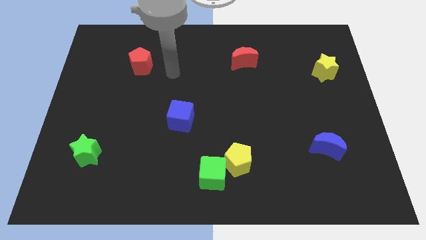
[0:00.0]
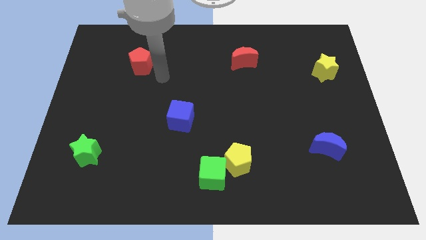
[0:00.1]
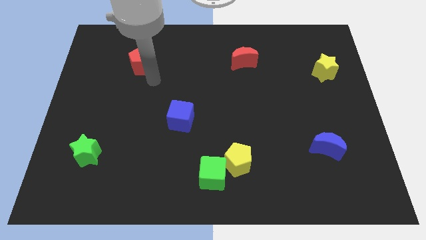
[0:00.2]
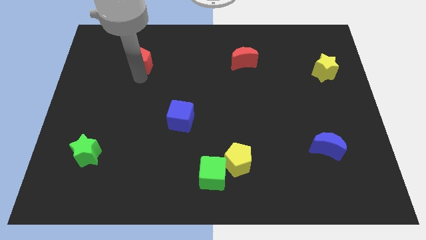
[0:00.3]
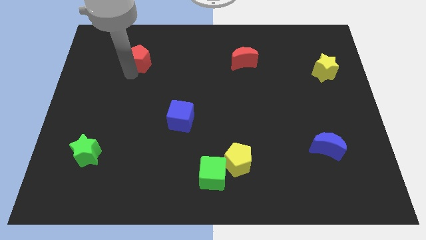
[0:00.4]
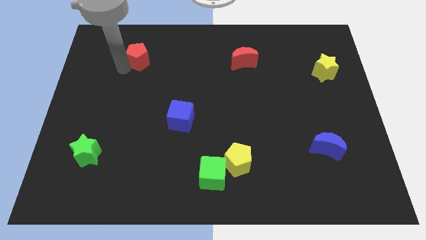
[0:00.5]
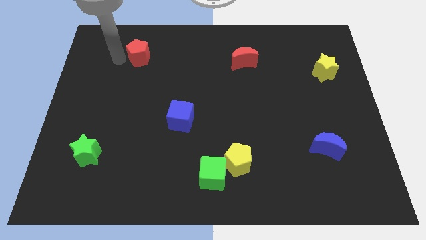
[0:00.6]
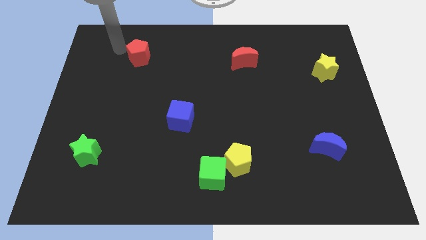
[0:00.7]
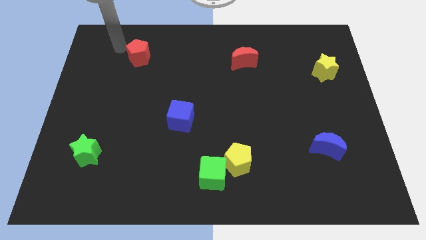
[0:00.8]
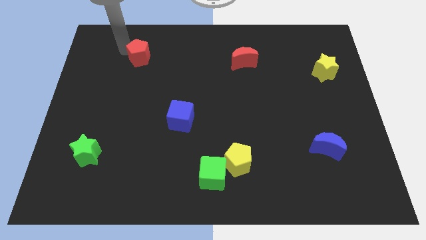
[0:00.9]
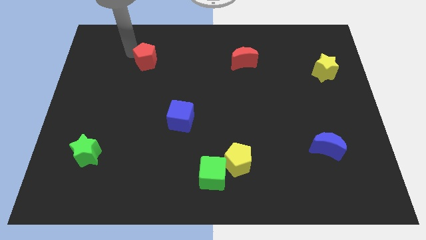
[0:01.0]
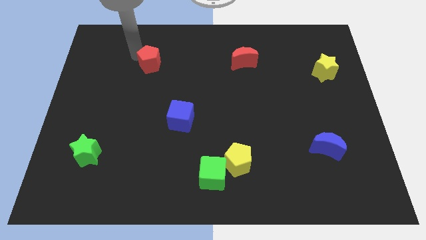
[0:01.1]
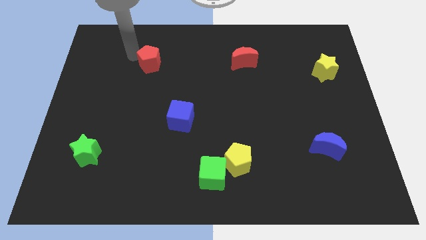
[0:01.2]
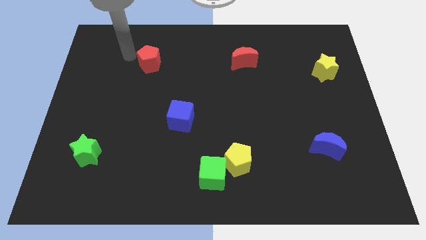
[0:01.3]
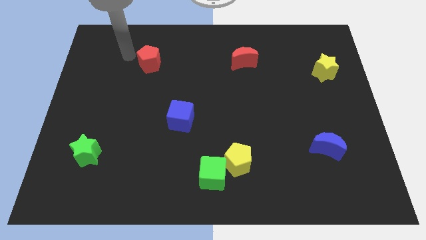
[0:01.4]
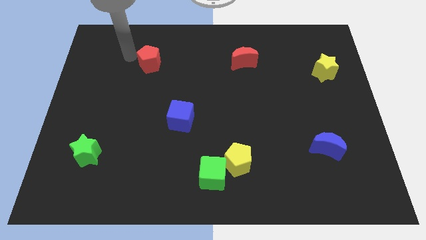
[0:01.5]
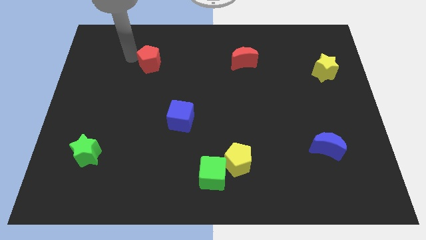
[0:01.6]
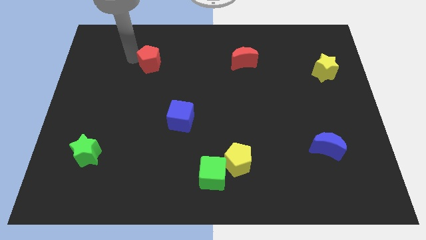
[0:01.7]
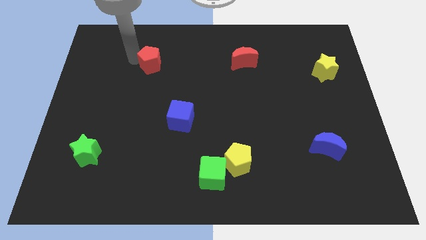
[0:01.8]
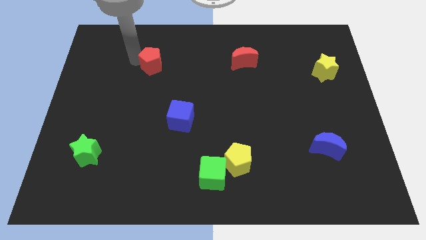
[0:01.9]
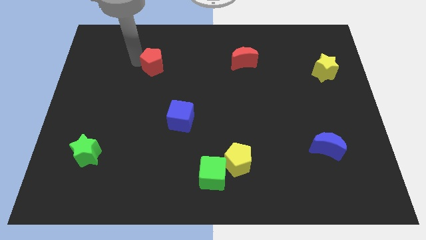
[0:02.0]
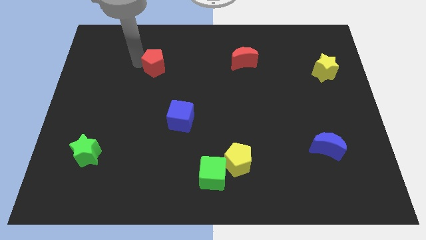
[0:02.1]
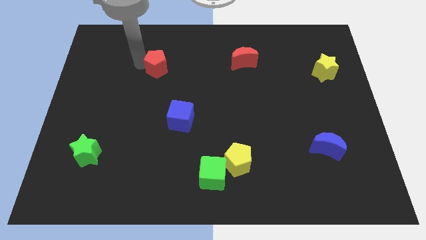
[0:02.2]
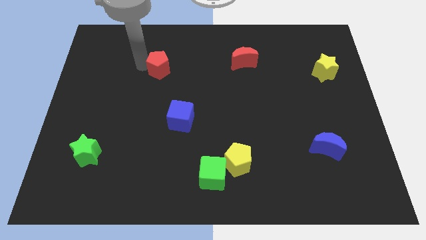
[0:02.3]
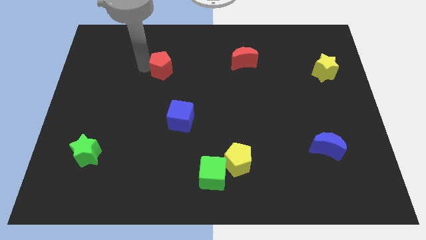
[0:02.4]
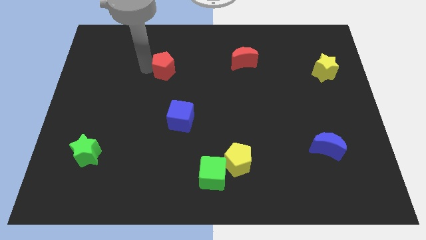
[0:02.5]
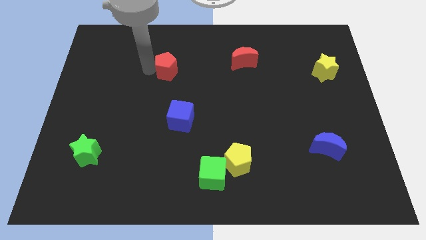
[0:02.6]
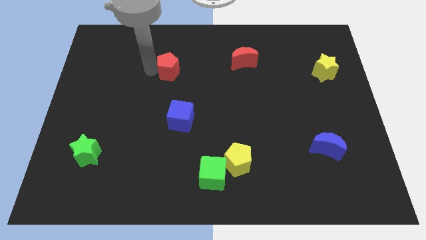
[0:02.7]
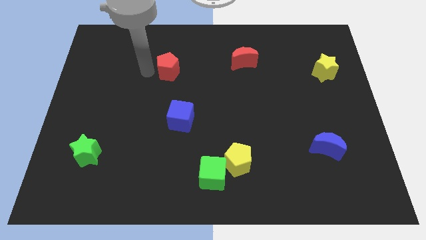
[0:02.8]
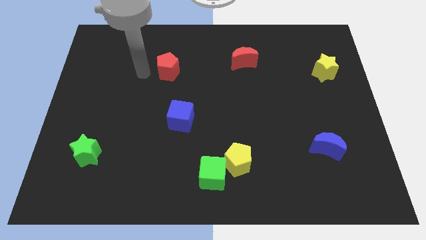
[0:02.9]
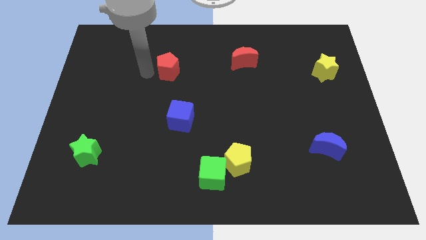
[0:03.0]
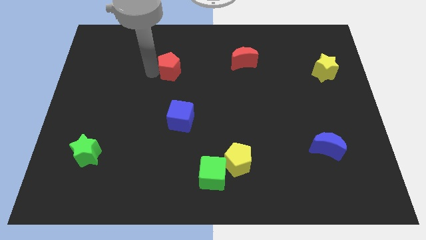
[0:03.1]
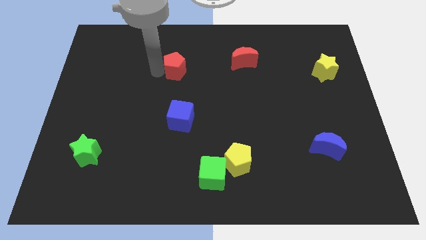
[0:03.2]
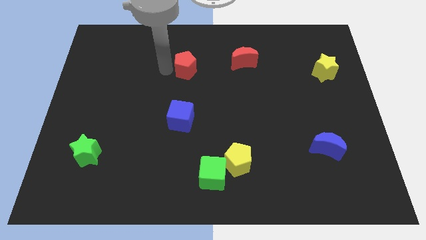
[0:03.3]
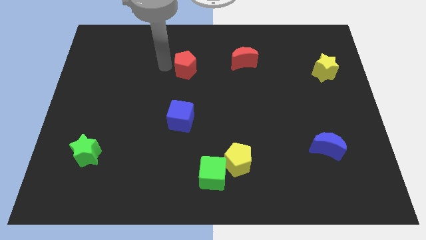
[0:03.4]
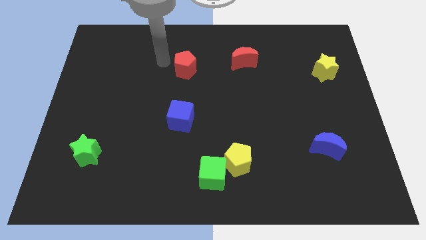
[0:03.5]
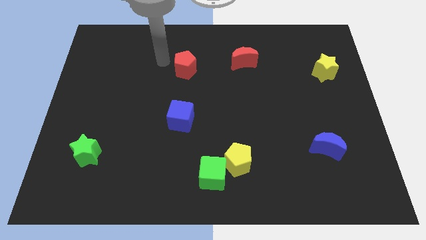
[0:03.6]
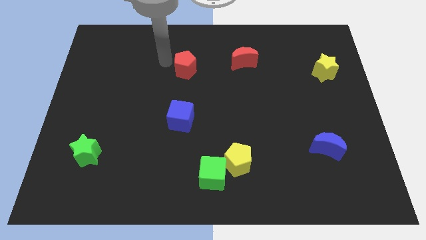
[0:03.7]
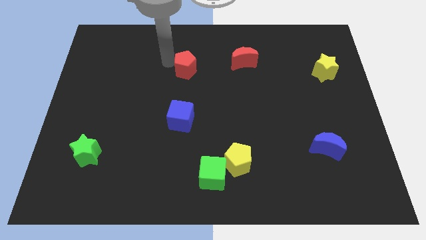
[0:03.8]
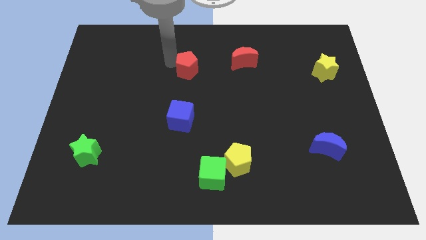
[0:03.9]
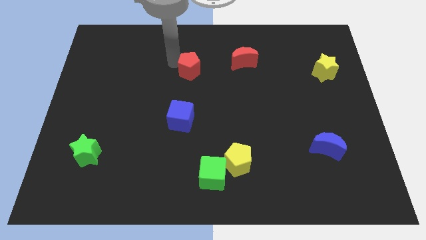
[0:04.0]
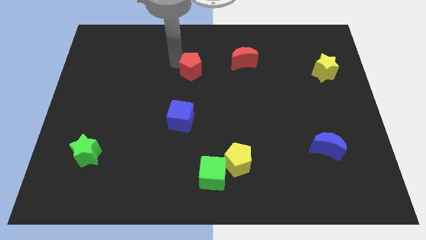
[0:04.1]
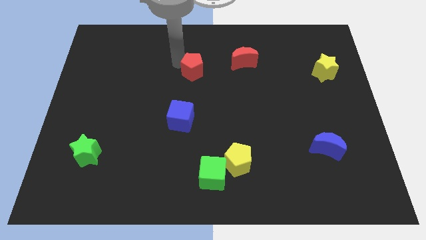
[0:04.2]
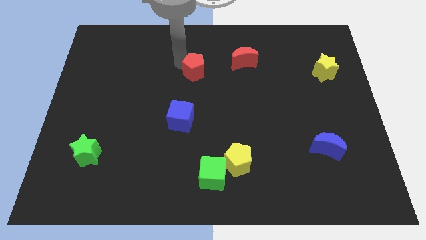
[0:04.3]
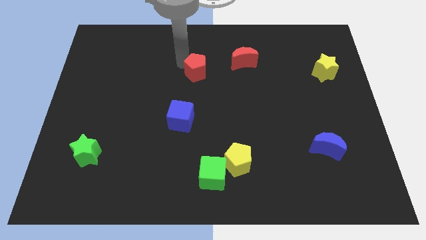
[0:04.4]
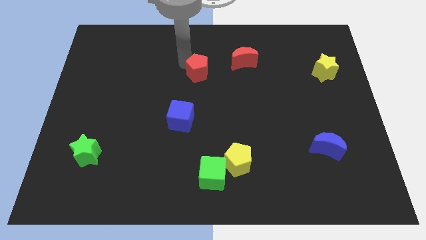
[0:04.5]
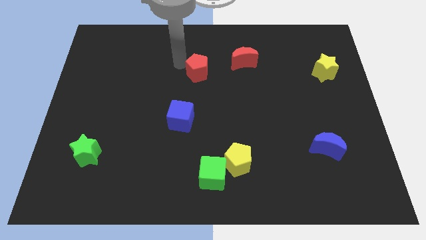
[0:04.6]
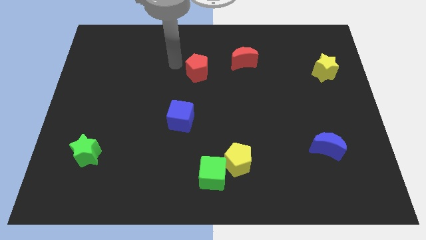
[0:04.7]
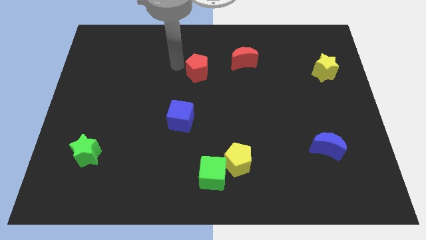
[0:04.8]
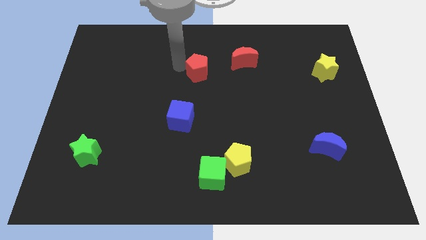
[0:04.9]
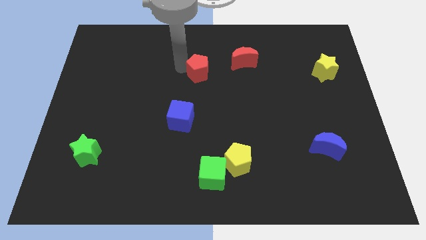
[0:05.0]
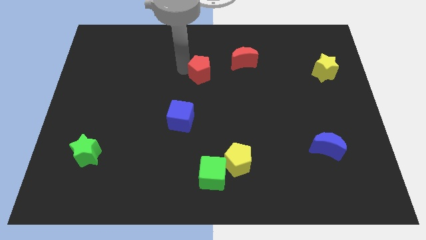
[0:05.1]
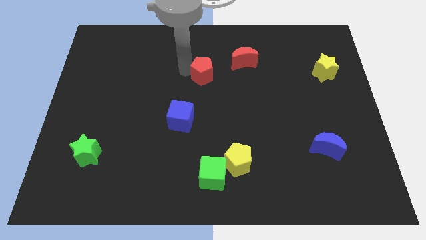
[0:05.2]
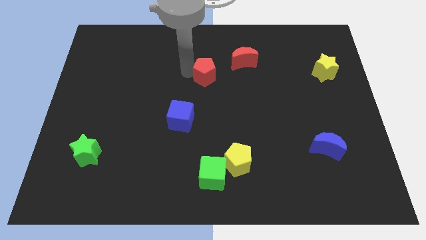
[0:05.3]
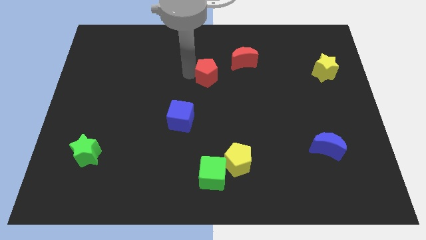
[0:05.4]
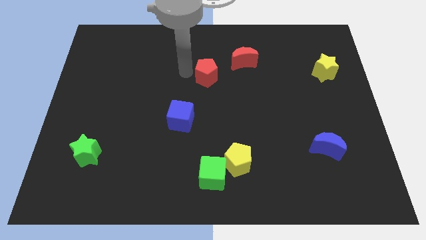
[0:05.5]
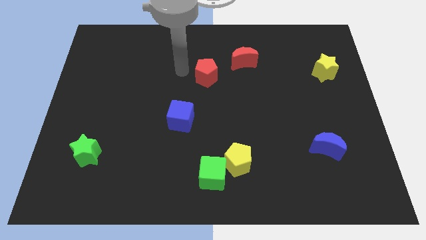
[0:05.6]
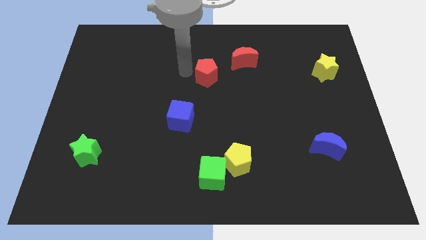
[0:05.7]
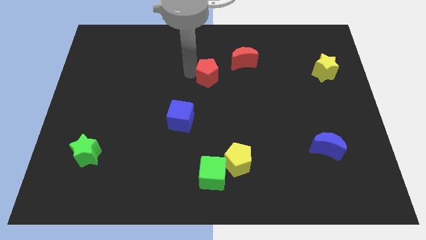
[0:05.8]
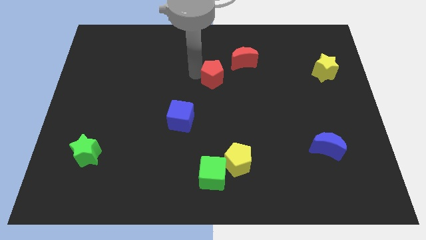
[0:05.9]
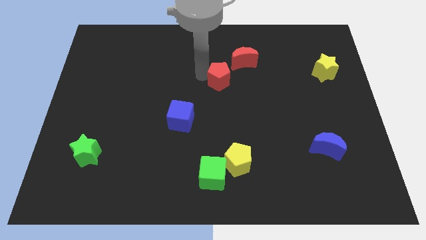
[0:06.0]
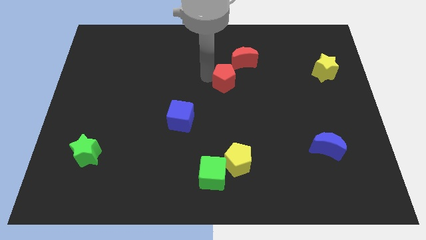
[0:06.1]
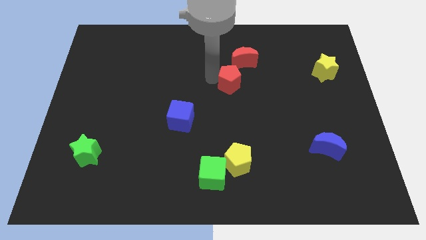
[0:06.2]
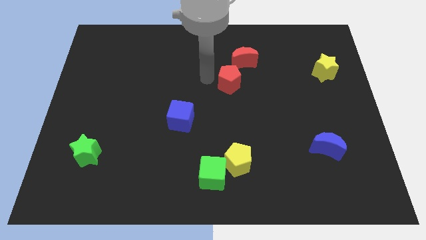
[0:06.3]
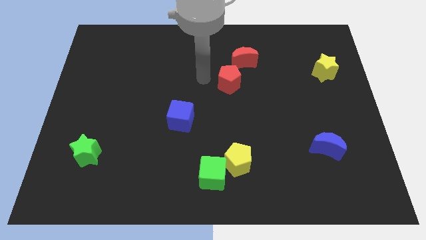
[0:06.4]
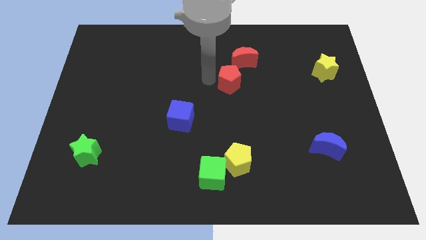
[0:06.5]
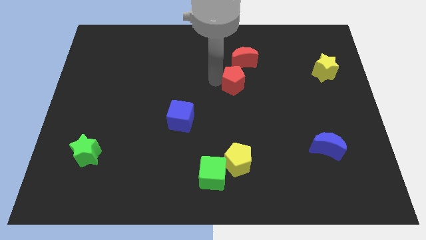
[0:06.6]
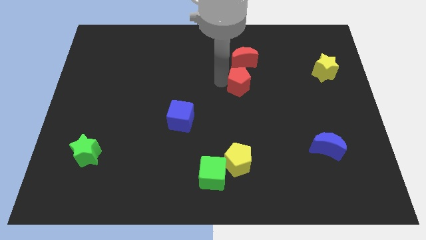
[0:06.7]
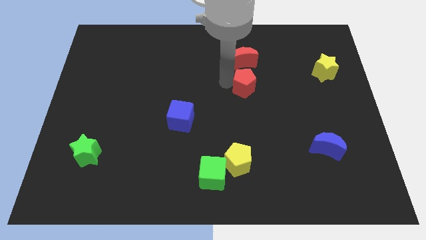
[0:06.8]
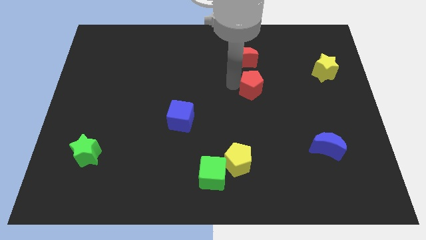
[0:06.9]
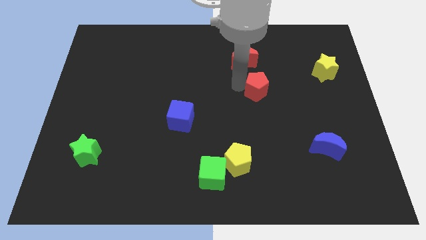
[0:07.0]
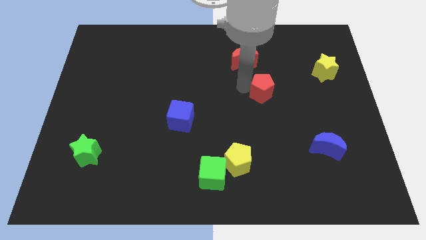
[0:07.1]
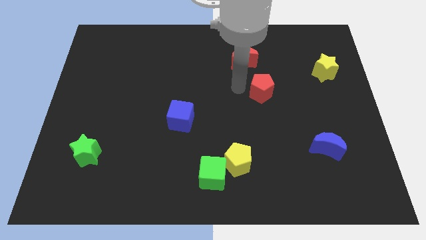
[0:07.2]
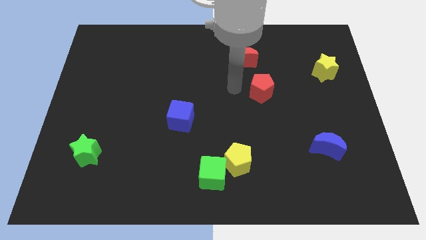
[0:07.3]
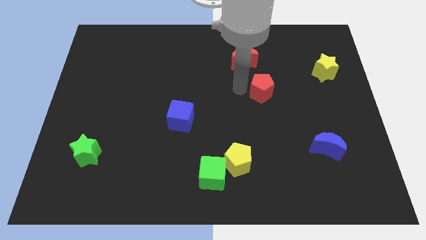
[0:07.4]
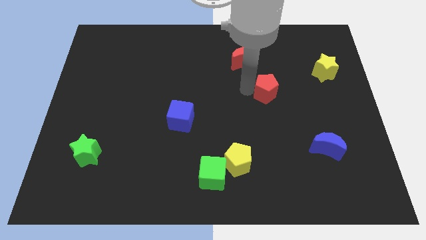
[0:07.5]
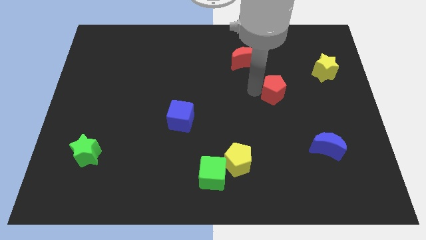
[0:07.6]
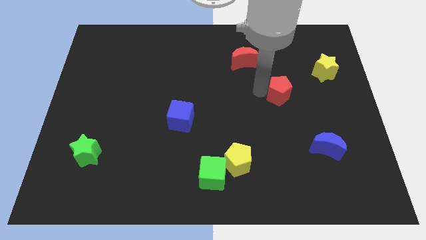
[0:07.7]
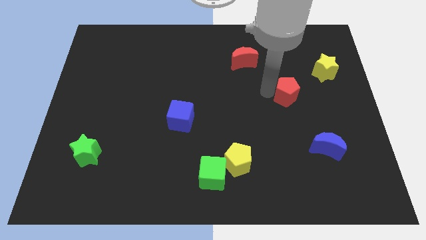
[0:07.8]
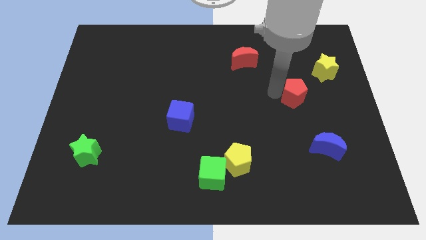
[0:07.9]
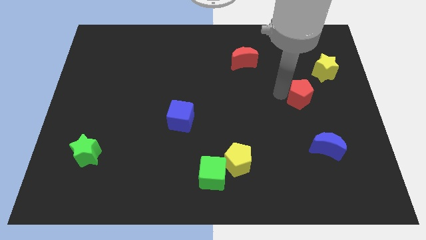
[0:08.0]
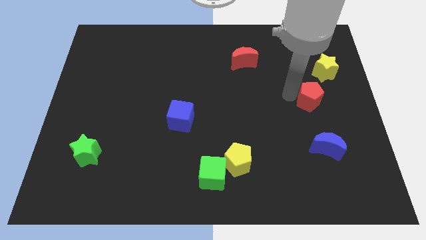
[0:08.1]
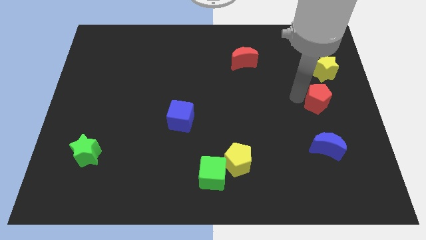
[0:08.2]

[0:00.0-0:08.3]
slide the red pentagon below the yellow star
